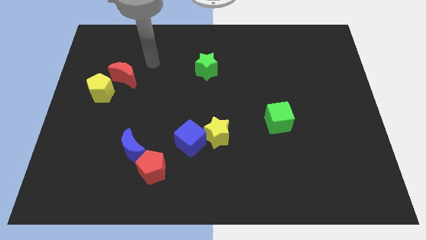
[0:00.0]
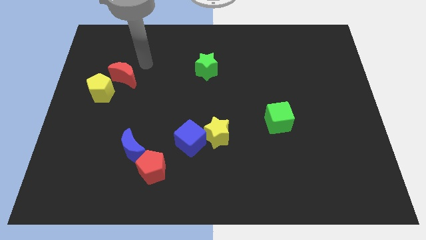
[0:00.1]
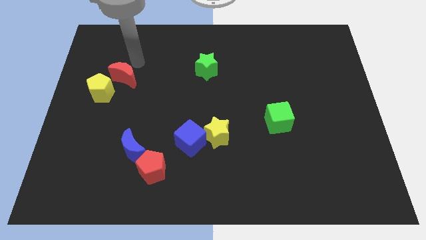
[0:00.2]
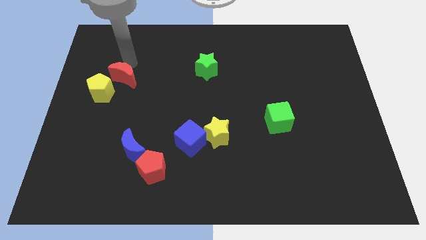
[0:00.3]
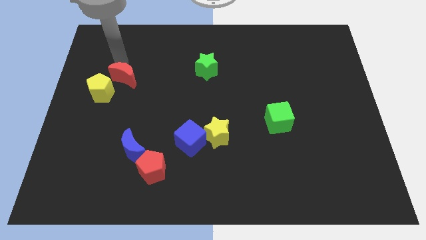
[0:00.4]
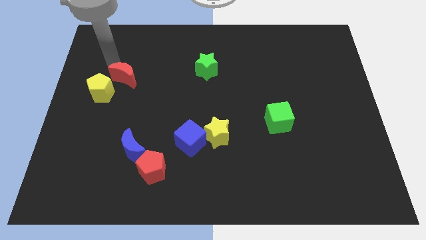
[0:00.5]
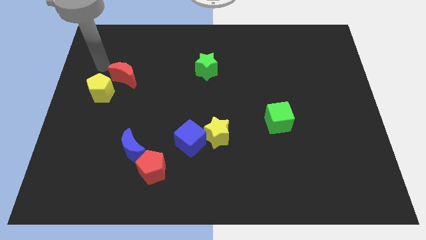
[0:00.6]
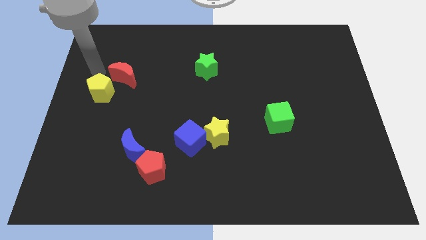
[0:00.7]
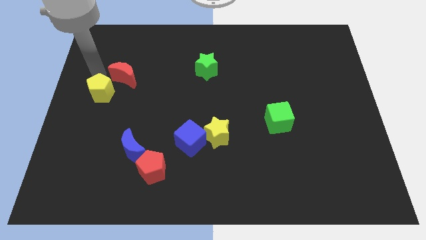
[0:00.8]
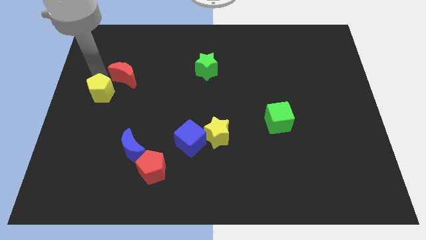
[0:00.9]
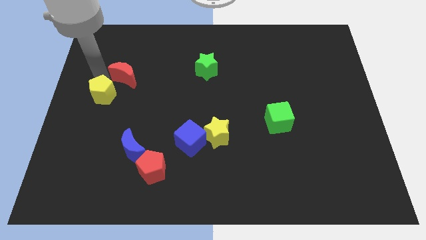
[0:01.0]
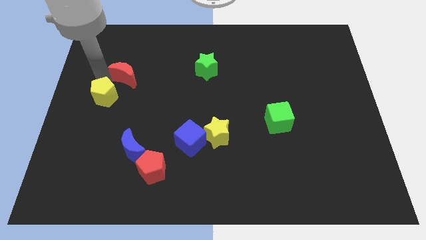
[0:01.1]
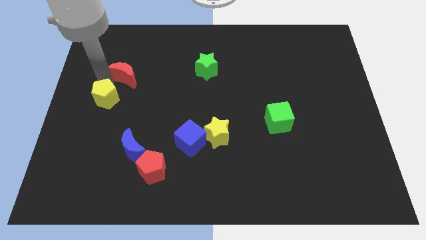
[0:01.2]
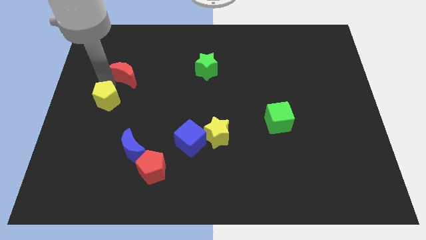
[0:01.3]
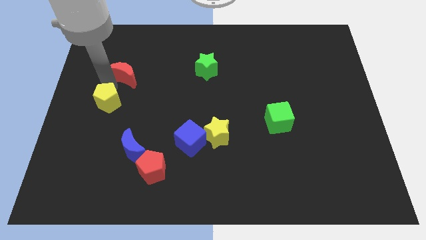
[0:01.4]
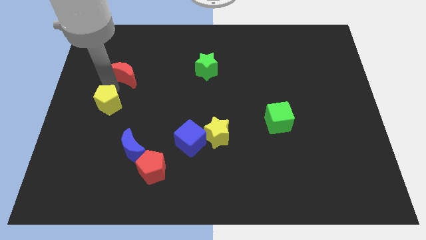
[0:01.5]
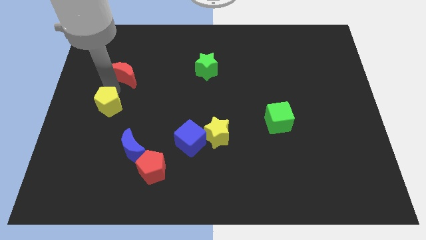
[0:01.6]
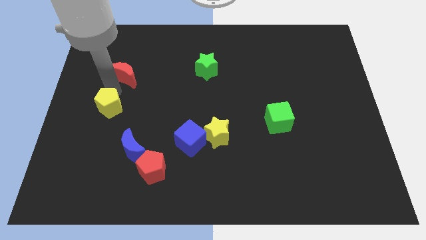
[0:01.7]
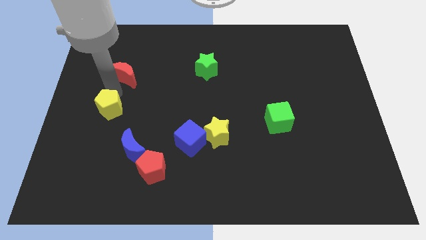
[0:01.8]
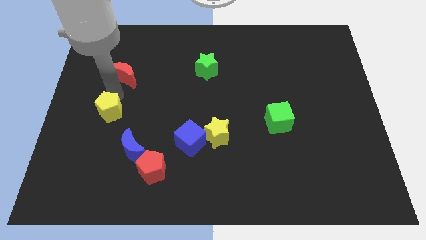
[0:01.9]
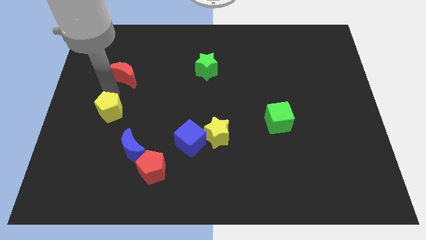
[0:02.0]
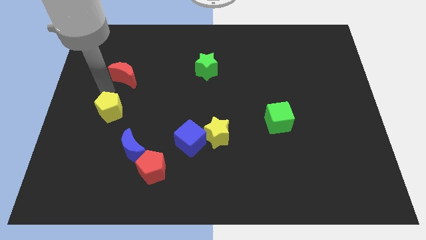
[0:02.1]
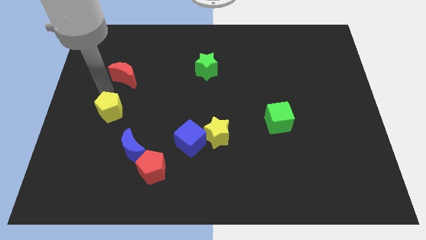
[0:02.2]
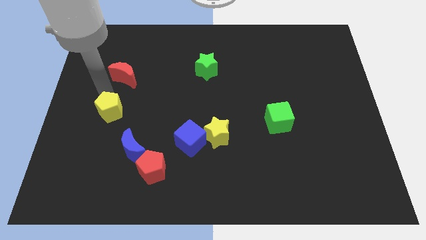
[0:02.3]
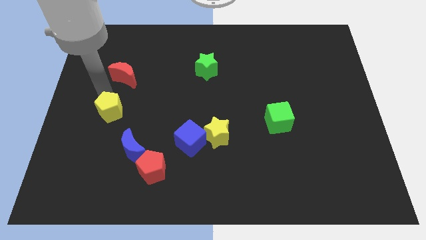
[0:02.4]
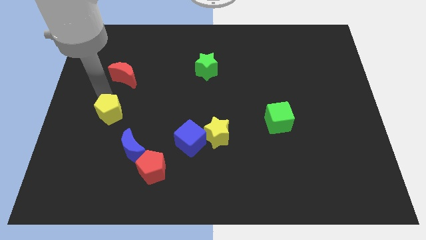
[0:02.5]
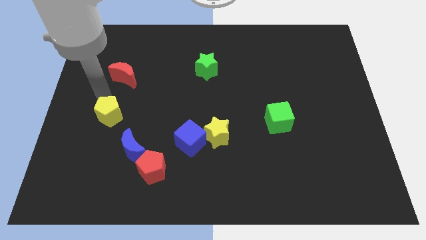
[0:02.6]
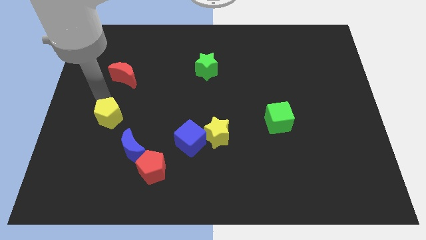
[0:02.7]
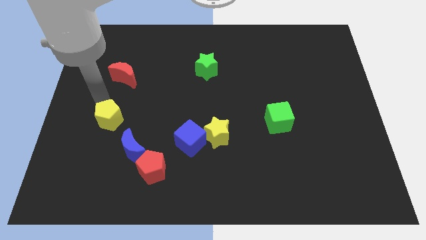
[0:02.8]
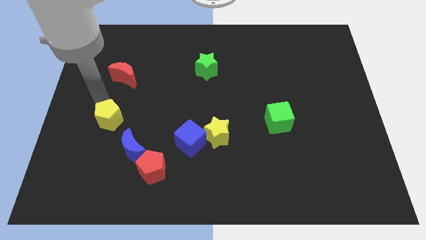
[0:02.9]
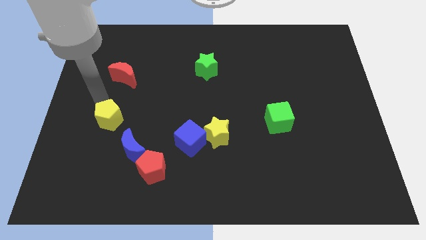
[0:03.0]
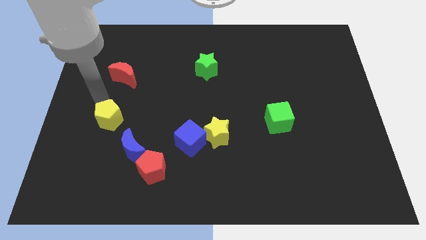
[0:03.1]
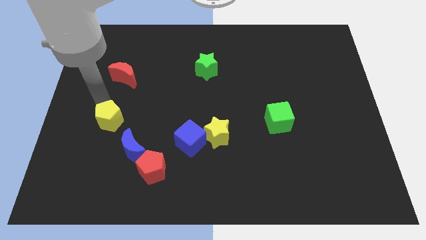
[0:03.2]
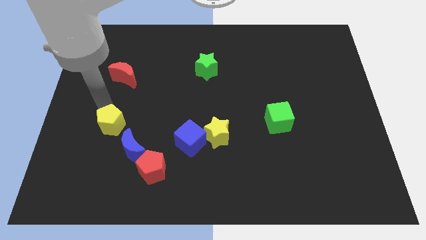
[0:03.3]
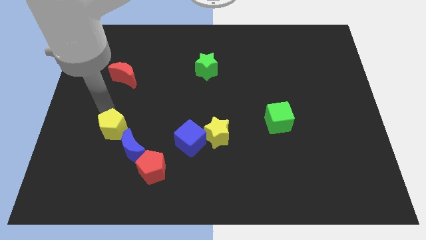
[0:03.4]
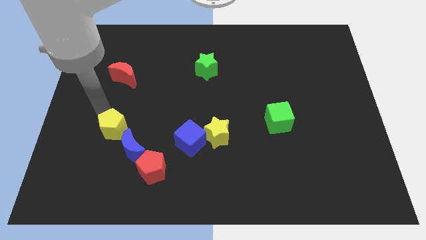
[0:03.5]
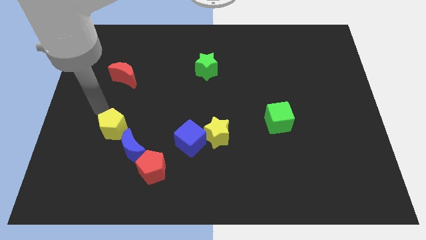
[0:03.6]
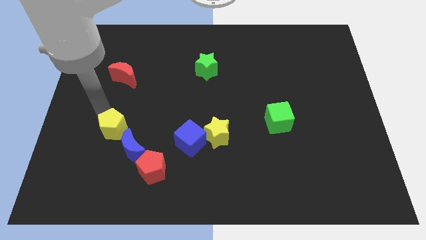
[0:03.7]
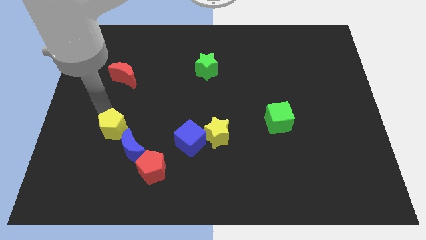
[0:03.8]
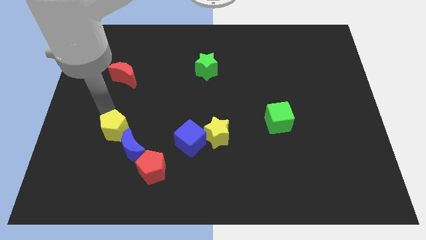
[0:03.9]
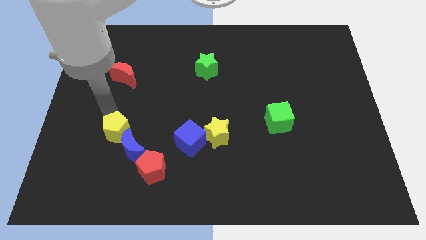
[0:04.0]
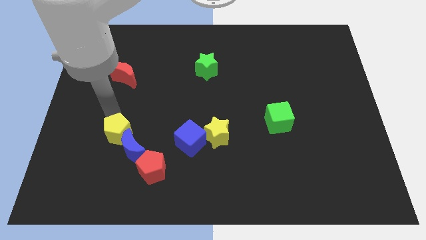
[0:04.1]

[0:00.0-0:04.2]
slide the yellow pentagon to the blue moon

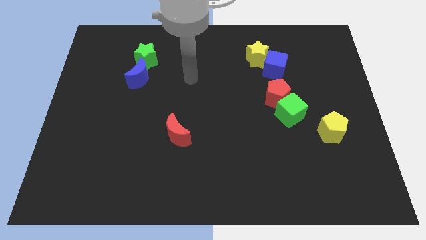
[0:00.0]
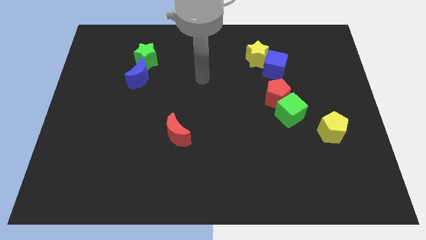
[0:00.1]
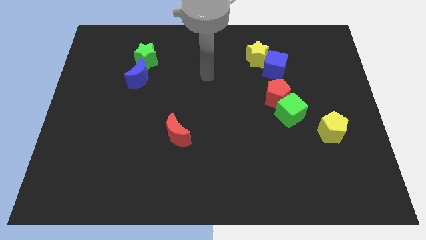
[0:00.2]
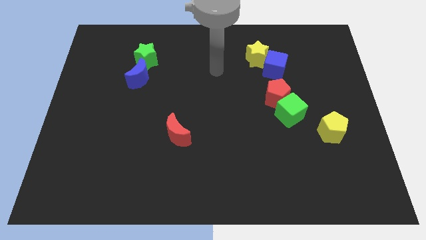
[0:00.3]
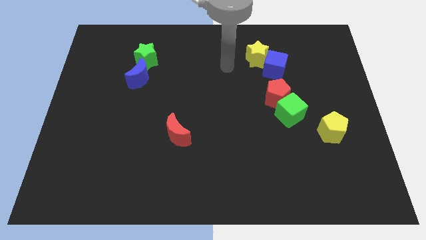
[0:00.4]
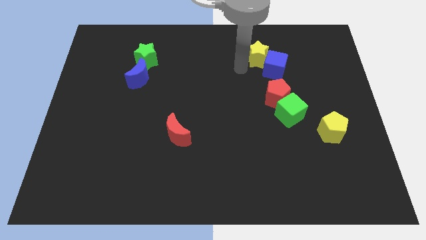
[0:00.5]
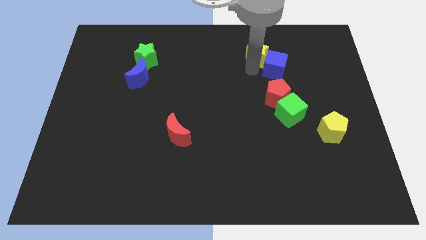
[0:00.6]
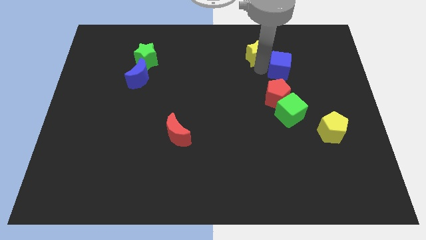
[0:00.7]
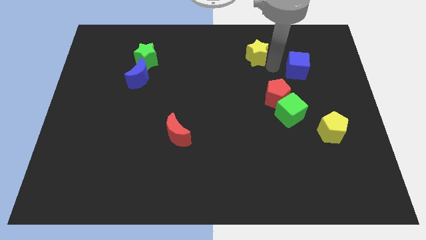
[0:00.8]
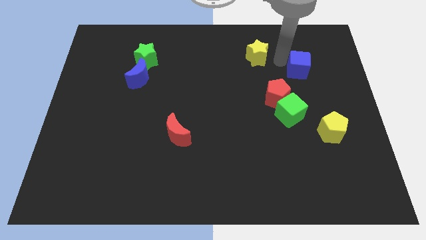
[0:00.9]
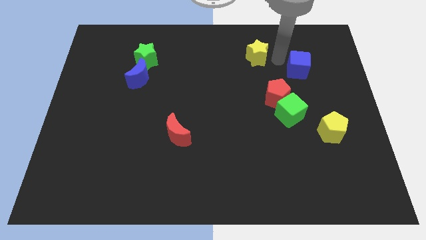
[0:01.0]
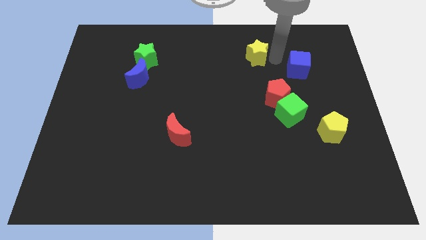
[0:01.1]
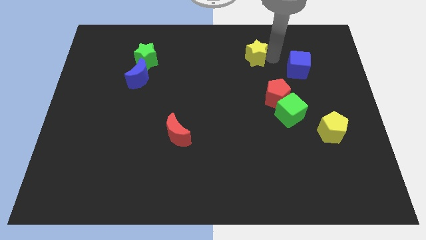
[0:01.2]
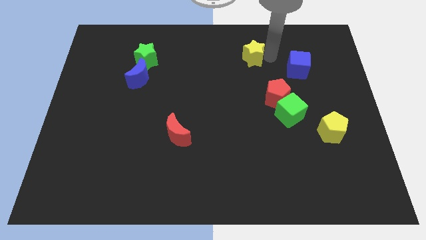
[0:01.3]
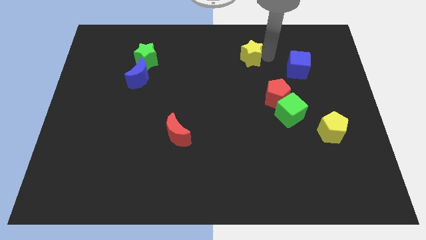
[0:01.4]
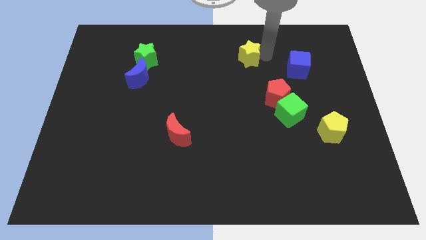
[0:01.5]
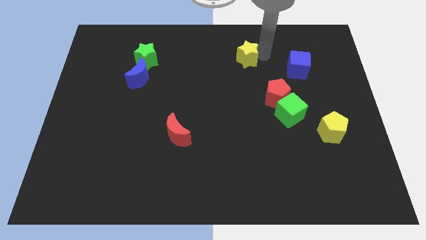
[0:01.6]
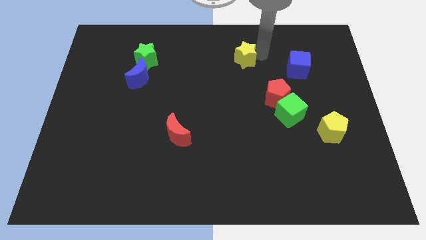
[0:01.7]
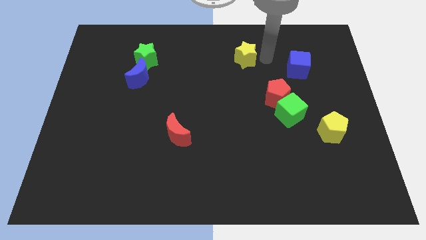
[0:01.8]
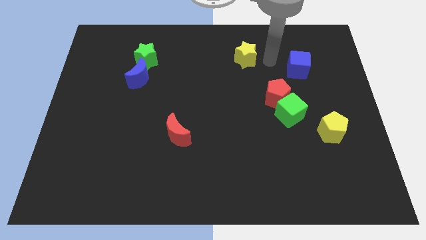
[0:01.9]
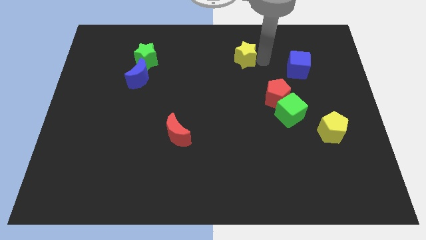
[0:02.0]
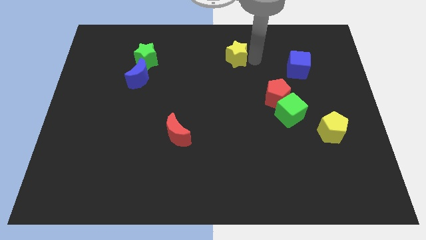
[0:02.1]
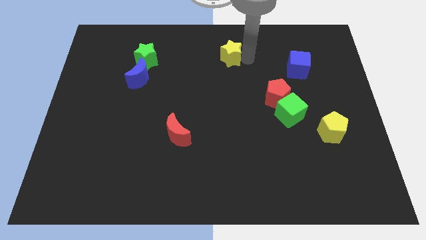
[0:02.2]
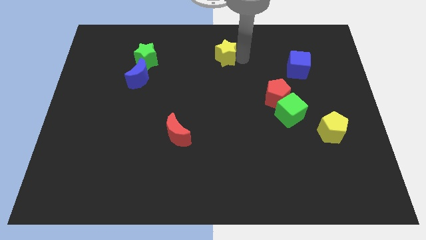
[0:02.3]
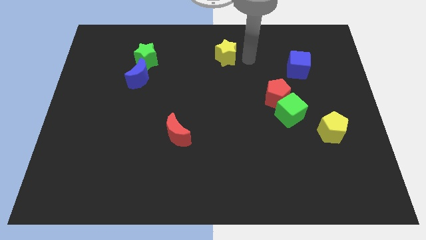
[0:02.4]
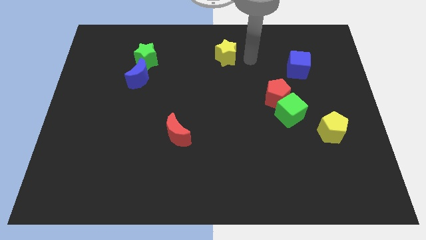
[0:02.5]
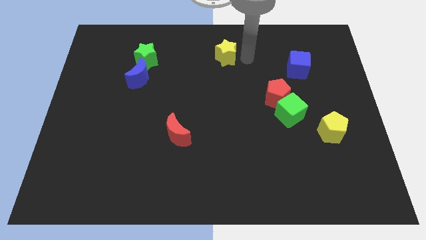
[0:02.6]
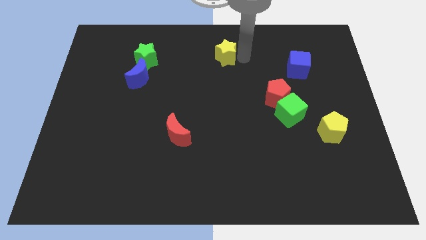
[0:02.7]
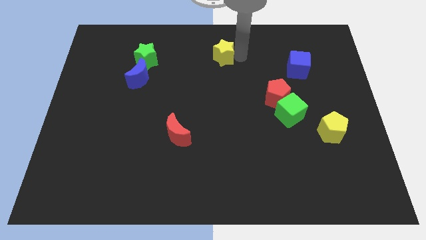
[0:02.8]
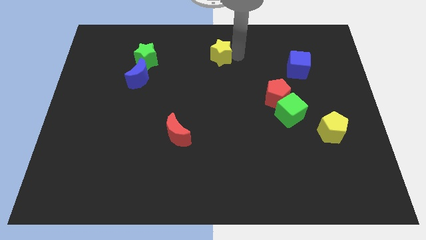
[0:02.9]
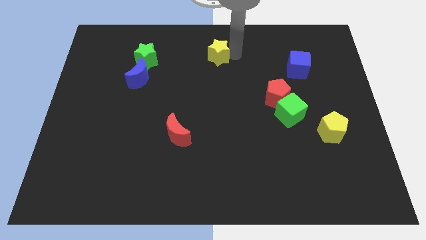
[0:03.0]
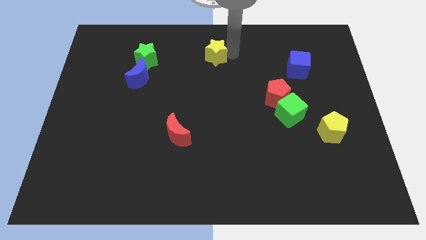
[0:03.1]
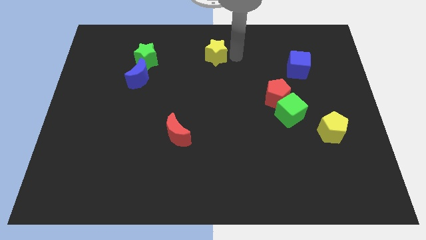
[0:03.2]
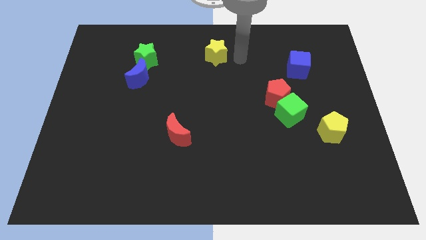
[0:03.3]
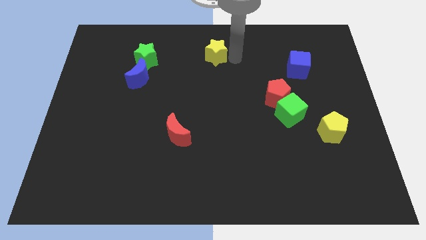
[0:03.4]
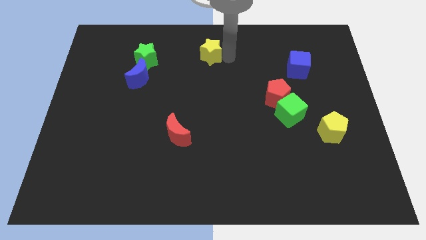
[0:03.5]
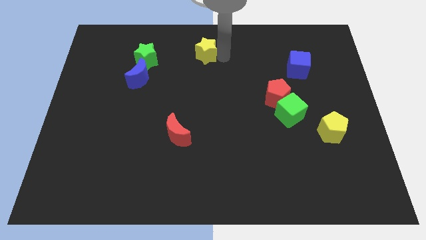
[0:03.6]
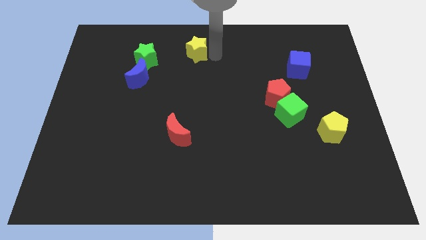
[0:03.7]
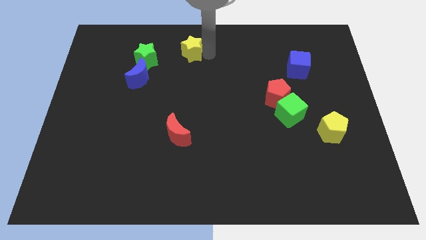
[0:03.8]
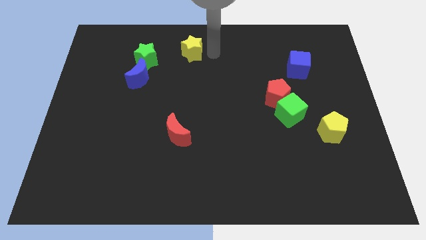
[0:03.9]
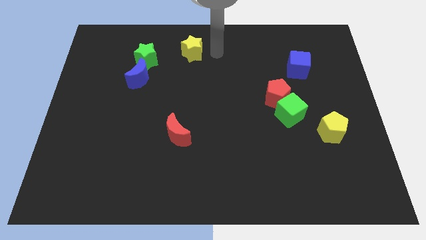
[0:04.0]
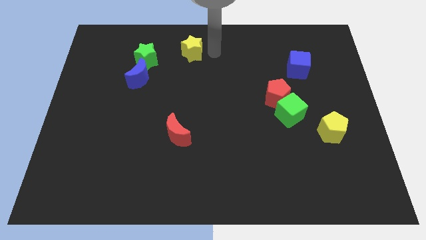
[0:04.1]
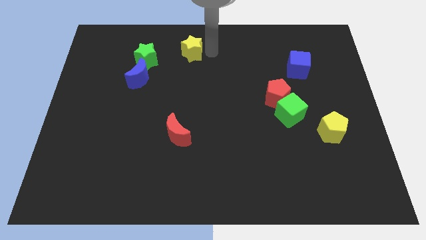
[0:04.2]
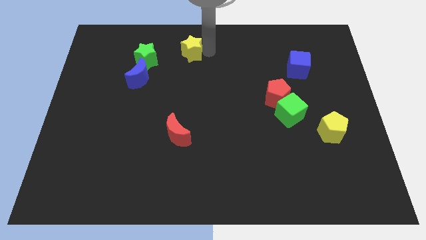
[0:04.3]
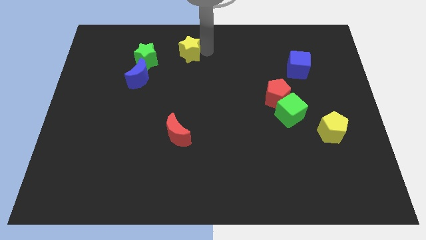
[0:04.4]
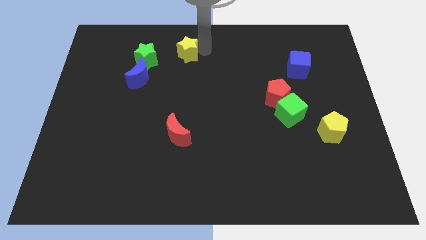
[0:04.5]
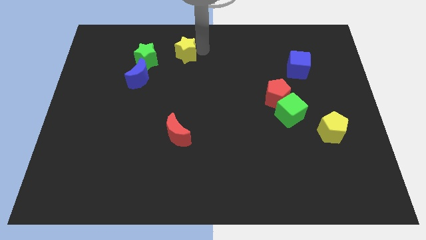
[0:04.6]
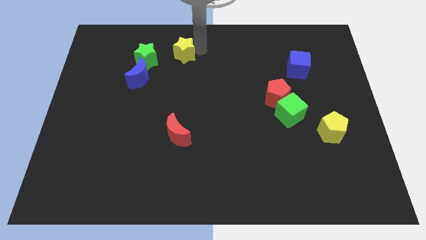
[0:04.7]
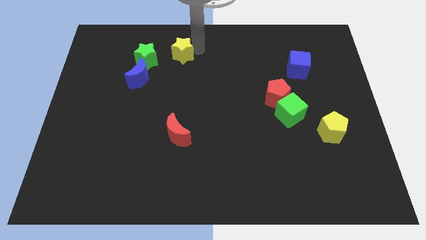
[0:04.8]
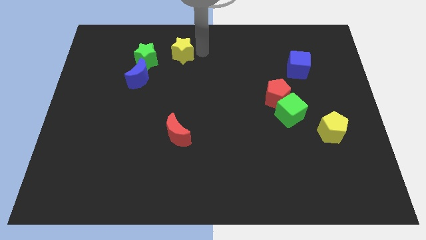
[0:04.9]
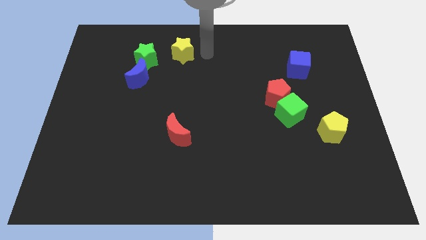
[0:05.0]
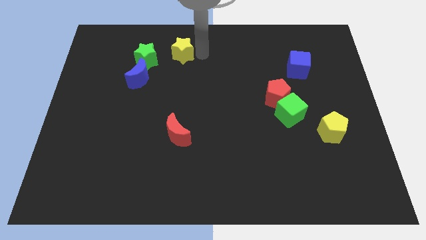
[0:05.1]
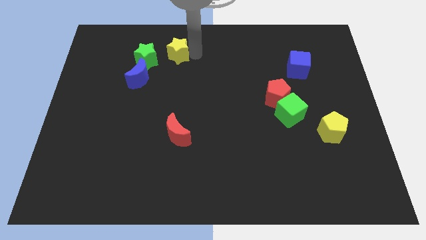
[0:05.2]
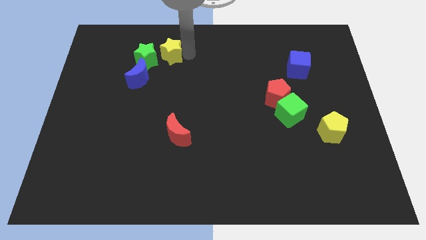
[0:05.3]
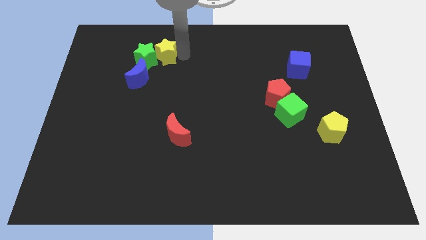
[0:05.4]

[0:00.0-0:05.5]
slide the yellow star next to the green star
